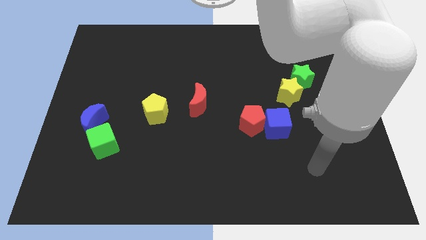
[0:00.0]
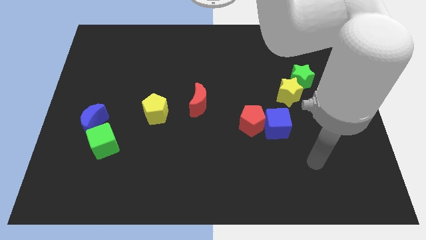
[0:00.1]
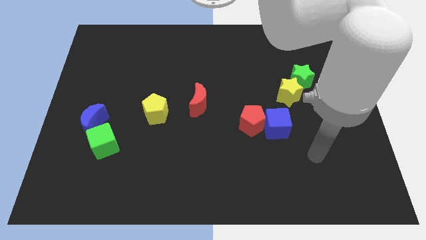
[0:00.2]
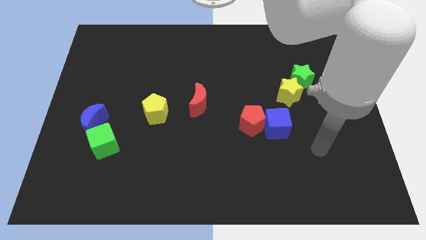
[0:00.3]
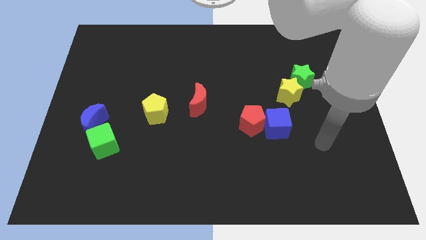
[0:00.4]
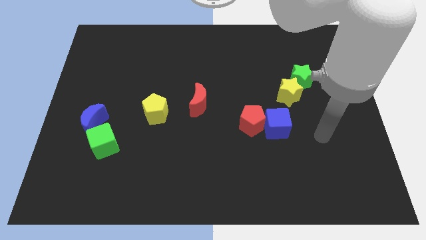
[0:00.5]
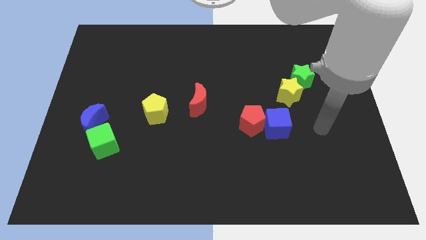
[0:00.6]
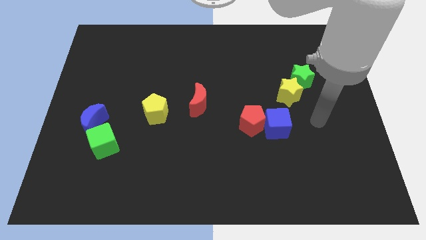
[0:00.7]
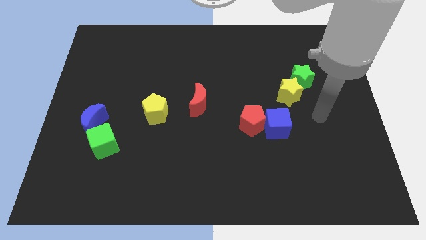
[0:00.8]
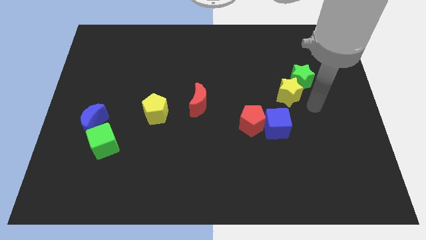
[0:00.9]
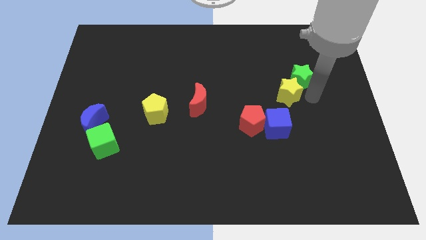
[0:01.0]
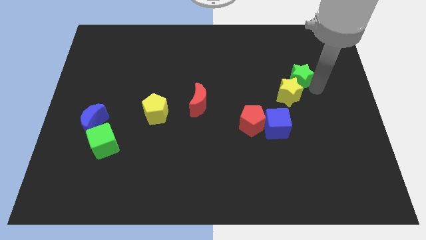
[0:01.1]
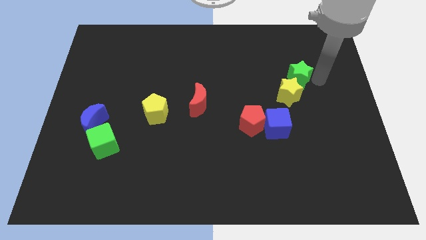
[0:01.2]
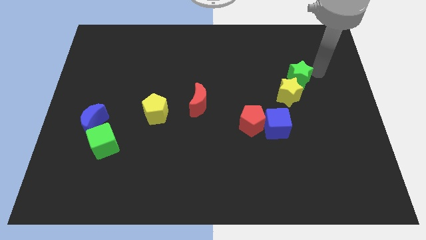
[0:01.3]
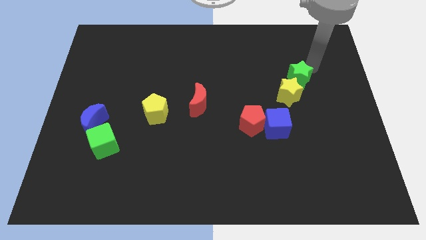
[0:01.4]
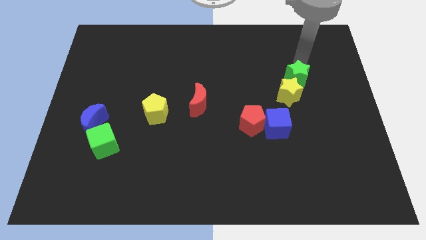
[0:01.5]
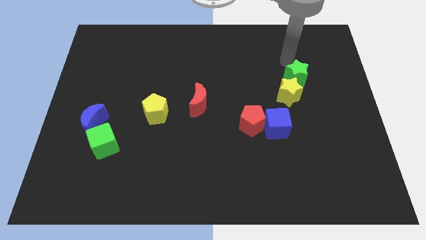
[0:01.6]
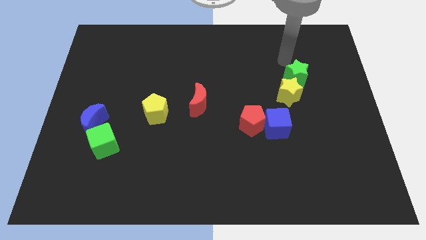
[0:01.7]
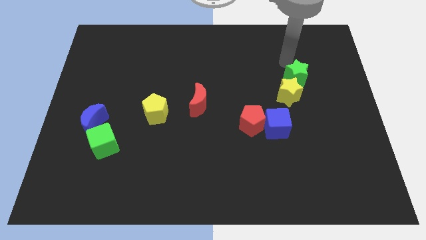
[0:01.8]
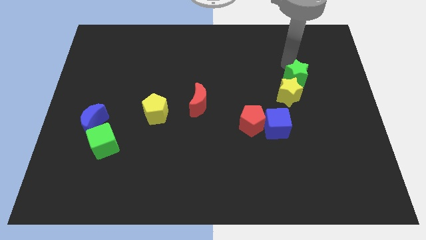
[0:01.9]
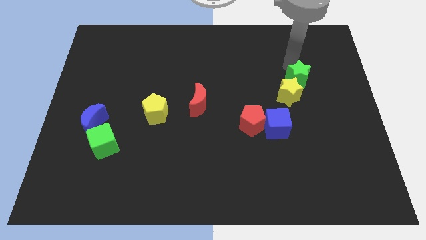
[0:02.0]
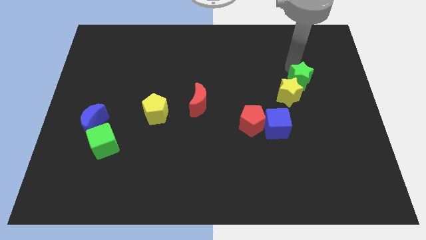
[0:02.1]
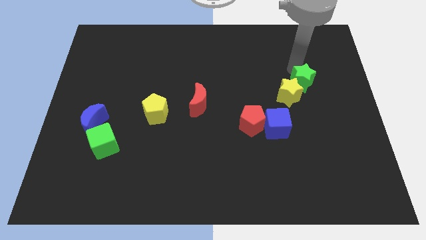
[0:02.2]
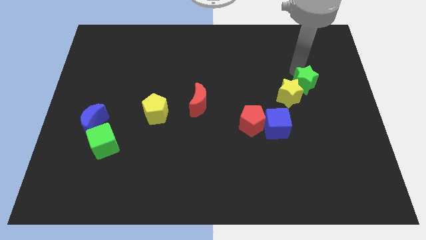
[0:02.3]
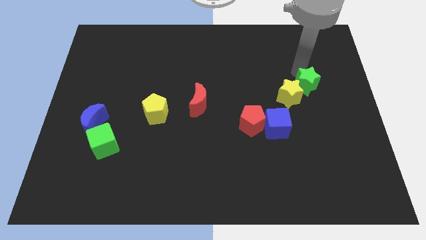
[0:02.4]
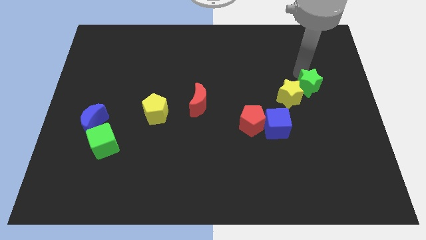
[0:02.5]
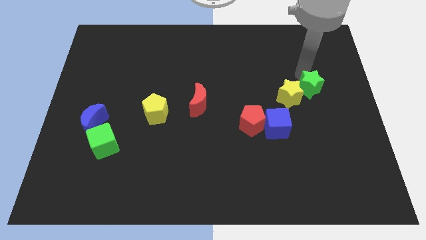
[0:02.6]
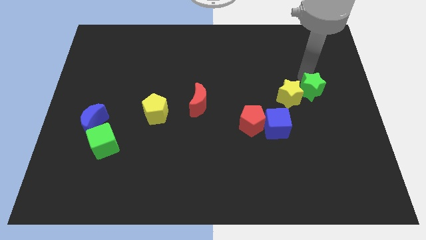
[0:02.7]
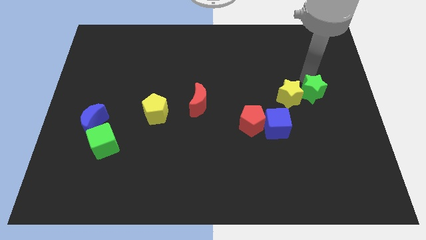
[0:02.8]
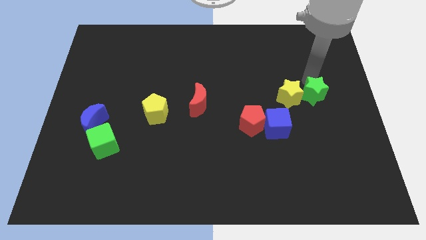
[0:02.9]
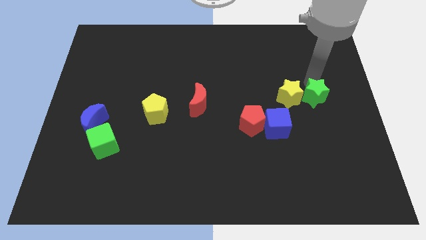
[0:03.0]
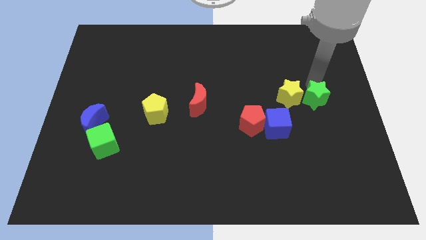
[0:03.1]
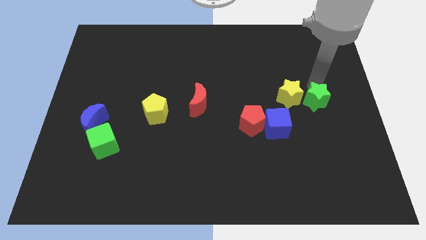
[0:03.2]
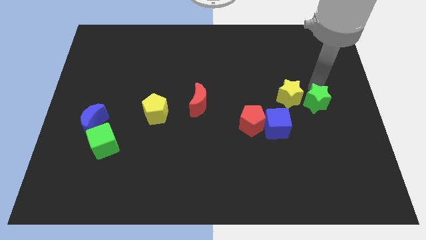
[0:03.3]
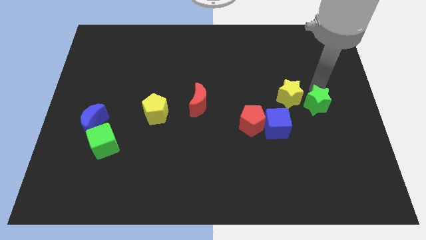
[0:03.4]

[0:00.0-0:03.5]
slightly slide the green star down

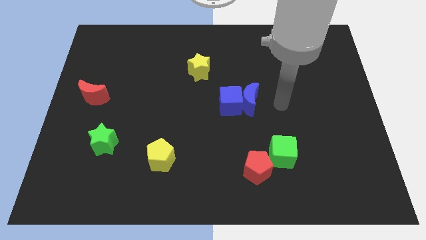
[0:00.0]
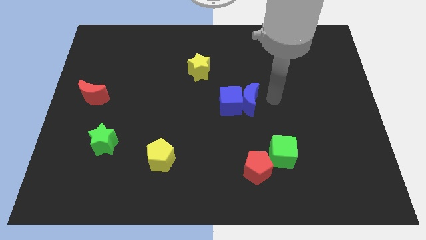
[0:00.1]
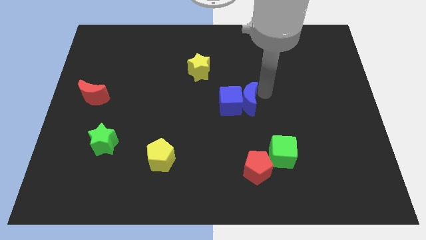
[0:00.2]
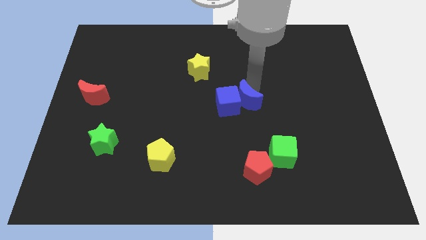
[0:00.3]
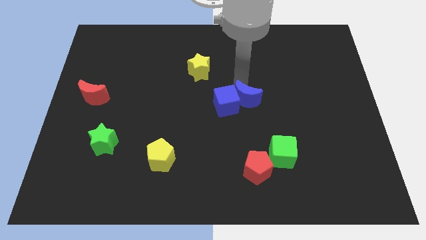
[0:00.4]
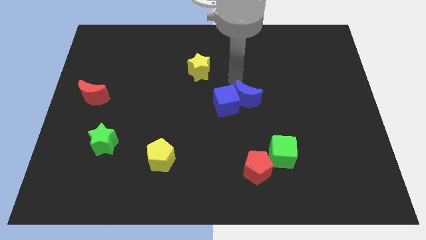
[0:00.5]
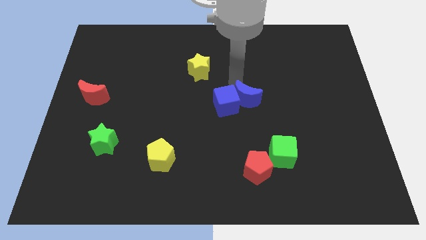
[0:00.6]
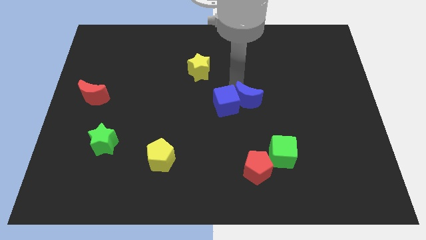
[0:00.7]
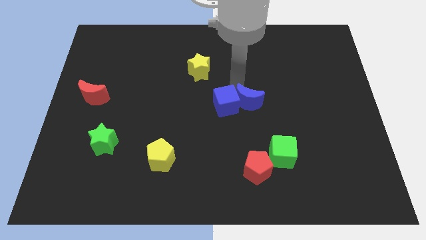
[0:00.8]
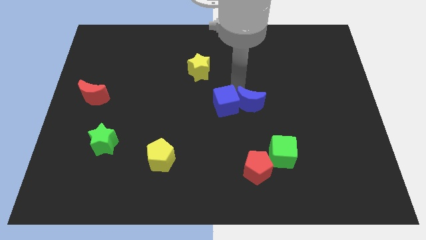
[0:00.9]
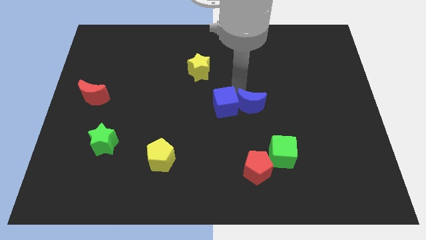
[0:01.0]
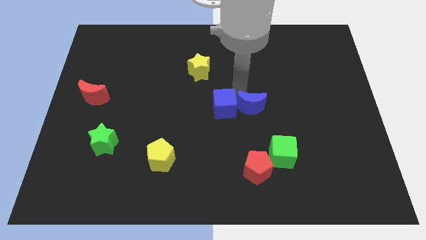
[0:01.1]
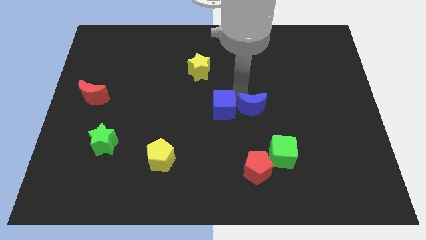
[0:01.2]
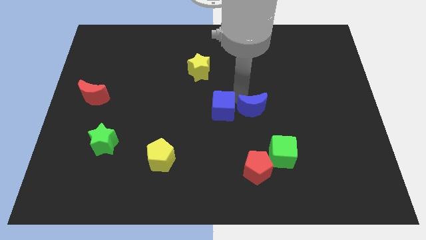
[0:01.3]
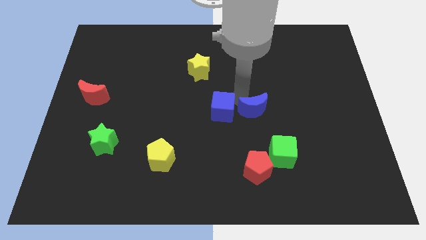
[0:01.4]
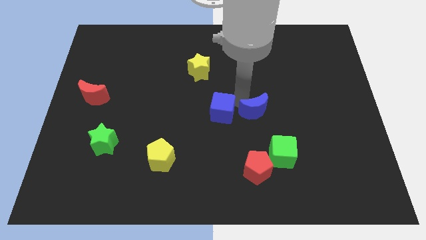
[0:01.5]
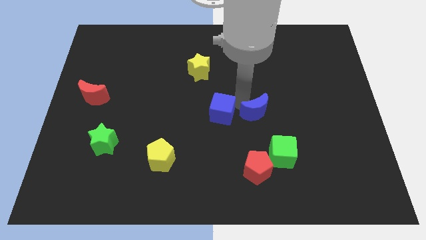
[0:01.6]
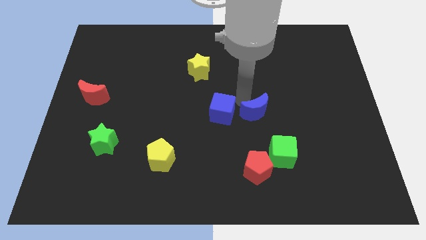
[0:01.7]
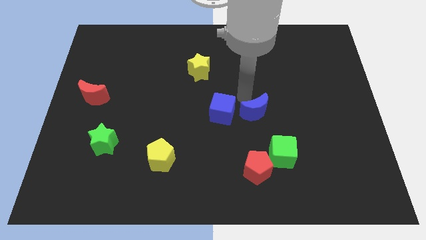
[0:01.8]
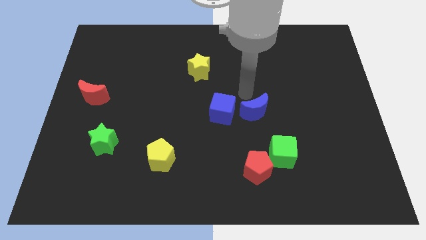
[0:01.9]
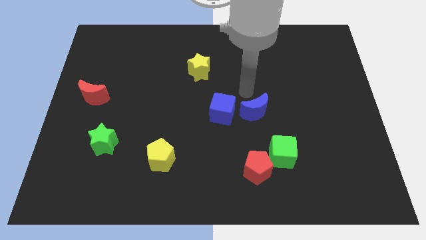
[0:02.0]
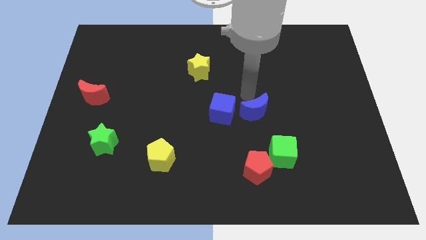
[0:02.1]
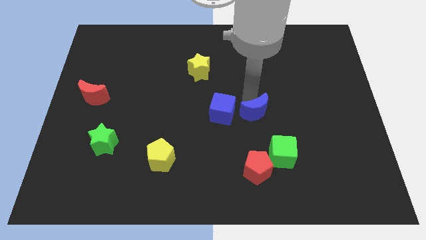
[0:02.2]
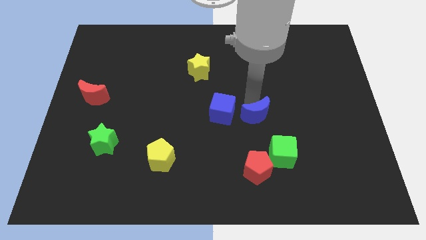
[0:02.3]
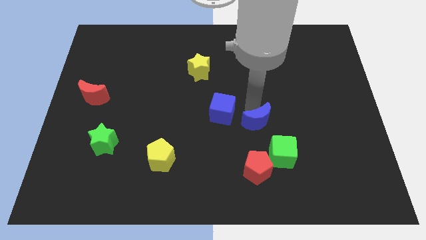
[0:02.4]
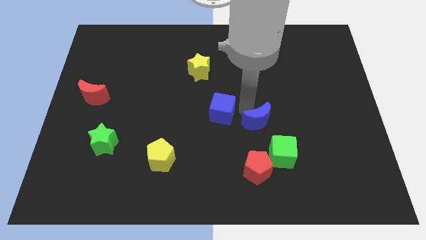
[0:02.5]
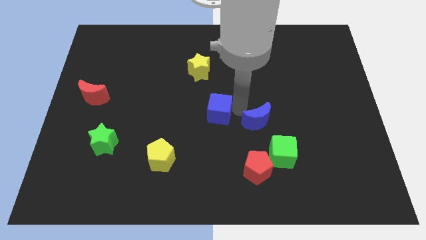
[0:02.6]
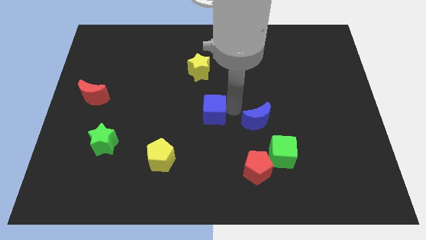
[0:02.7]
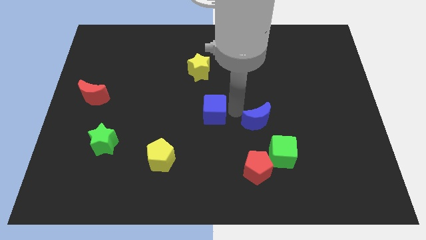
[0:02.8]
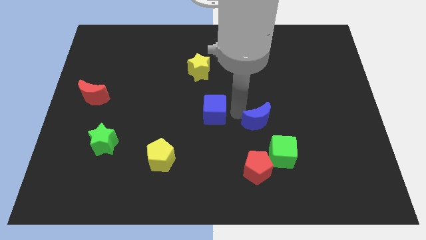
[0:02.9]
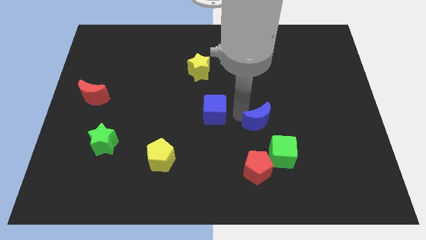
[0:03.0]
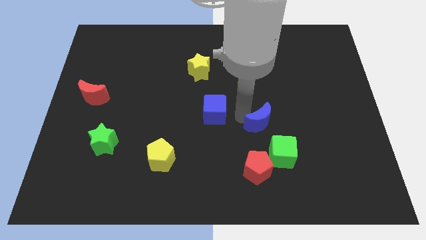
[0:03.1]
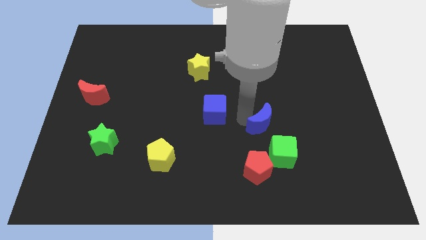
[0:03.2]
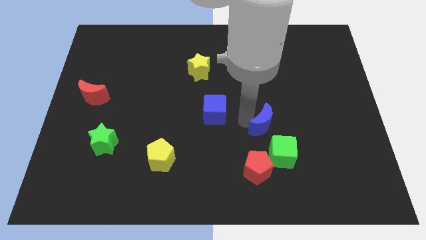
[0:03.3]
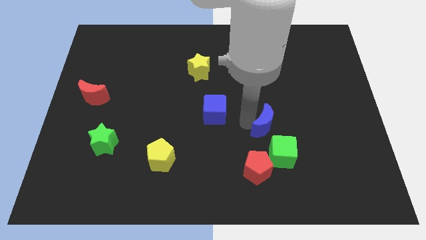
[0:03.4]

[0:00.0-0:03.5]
move the blue moon a little down and to the right diagonally

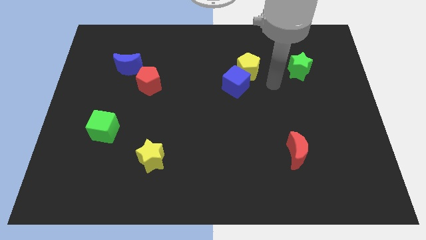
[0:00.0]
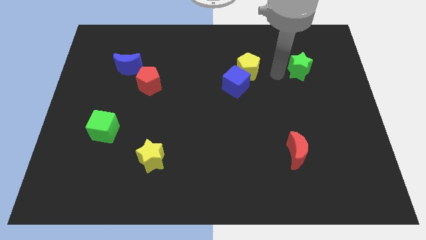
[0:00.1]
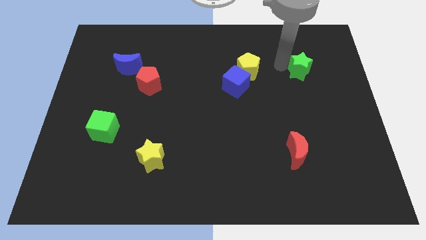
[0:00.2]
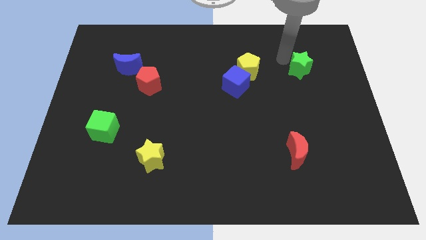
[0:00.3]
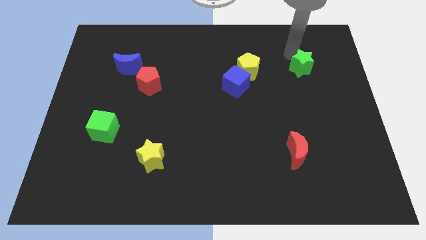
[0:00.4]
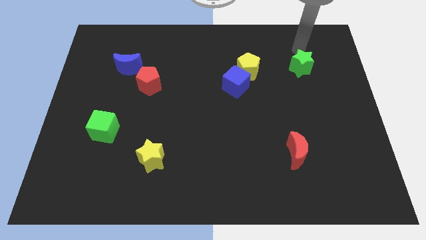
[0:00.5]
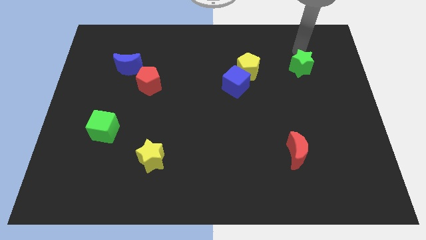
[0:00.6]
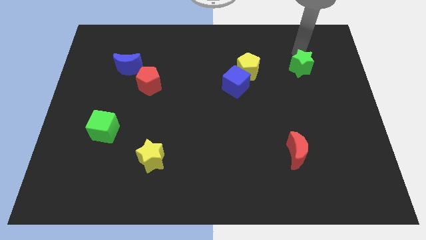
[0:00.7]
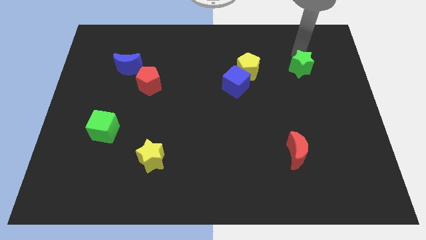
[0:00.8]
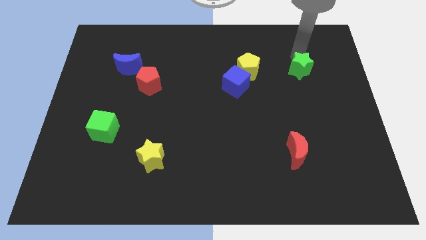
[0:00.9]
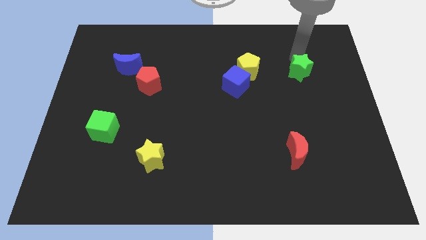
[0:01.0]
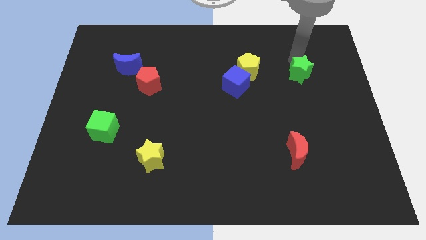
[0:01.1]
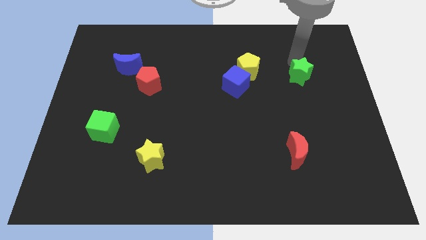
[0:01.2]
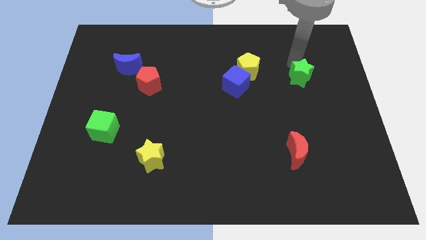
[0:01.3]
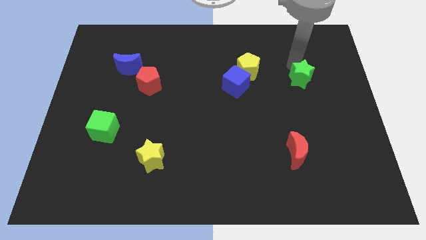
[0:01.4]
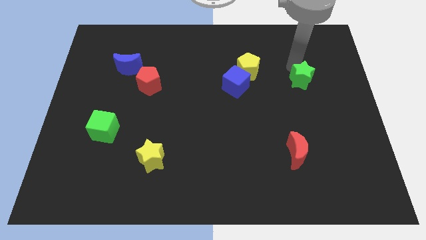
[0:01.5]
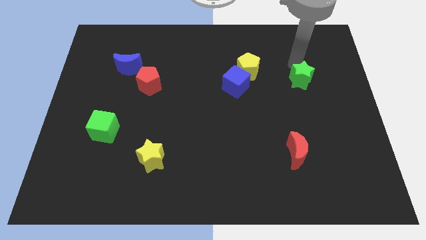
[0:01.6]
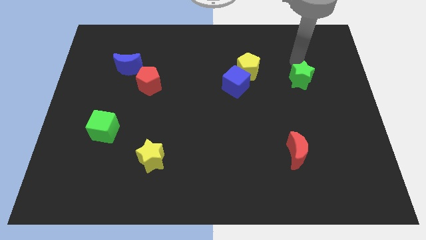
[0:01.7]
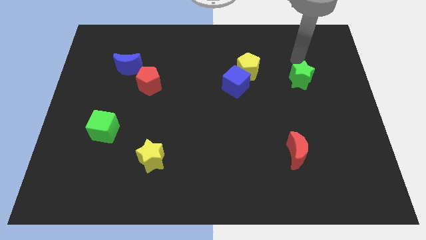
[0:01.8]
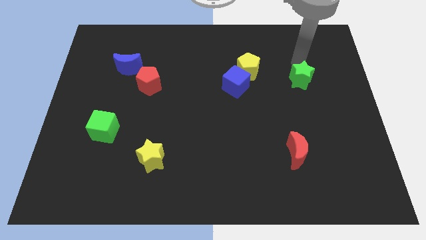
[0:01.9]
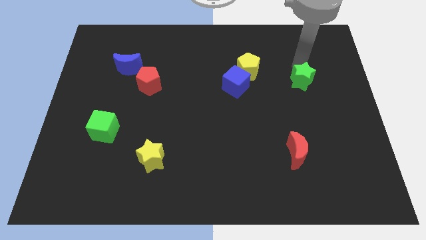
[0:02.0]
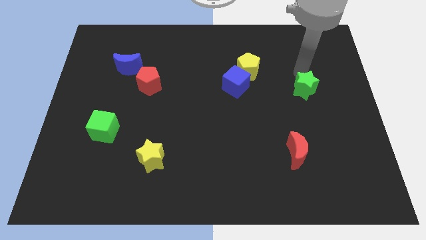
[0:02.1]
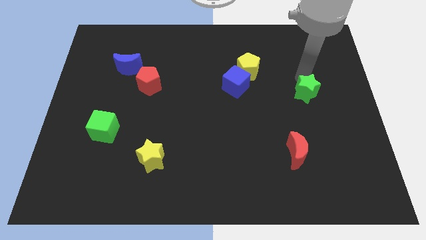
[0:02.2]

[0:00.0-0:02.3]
move the green star a little bit downwards
